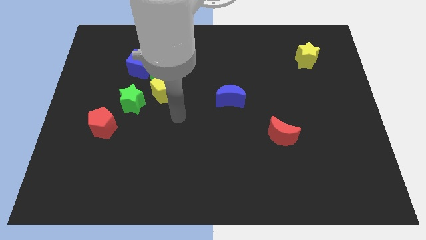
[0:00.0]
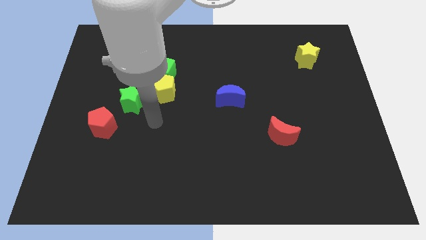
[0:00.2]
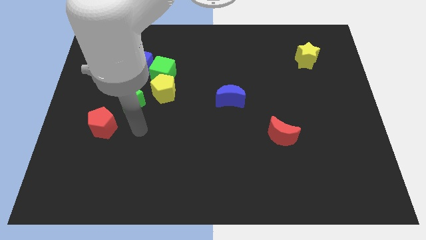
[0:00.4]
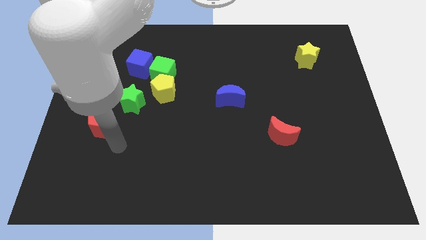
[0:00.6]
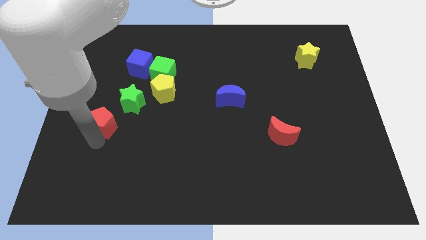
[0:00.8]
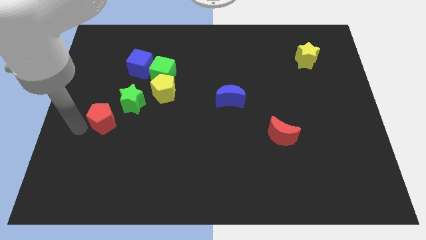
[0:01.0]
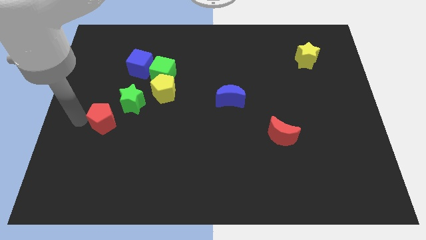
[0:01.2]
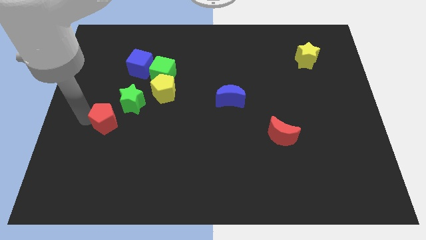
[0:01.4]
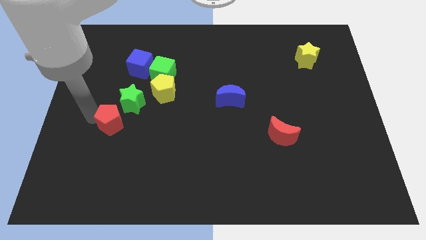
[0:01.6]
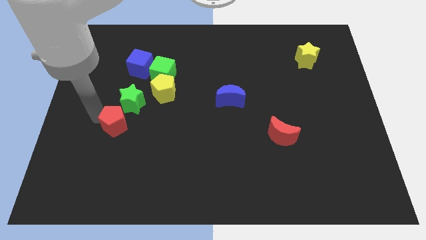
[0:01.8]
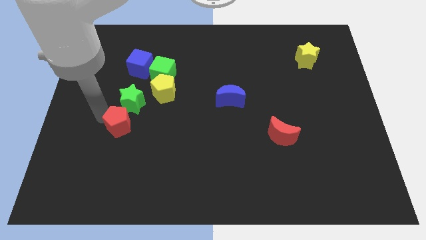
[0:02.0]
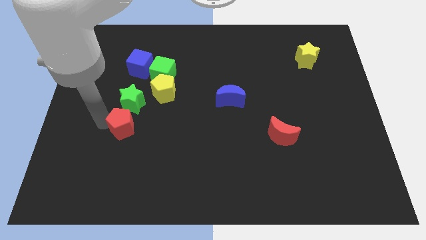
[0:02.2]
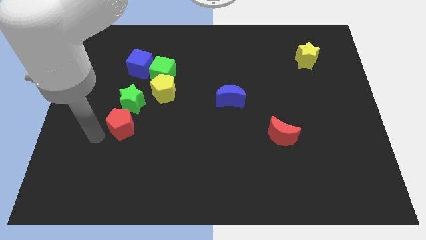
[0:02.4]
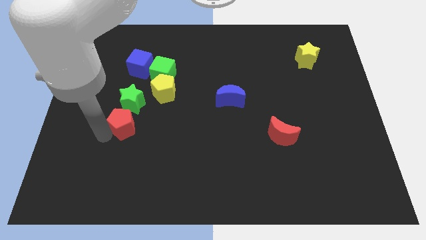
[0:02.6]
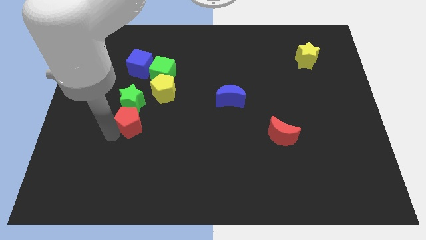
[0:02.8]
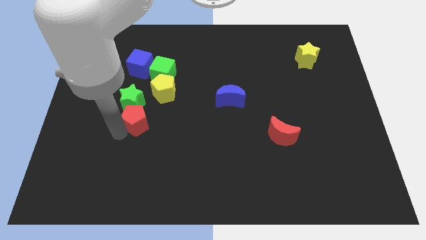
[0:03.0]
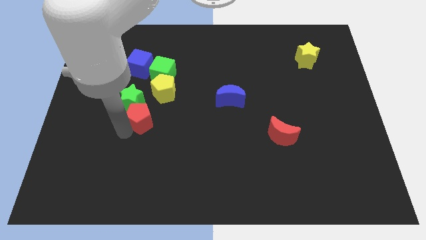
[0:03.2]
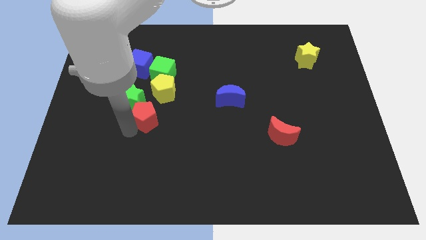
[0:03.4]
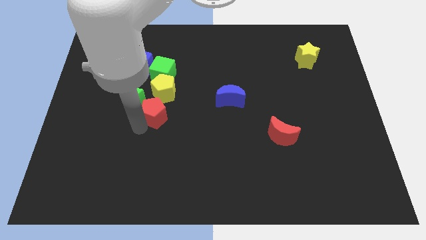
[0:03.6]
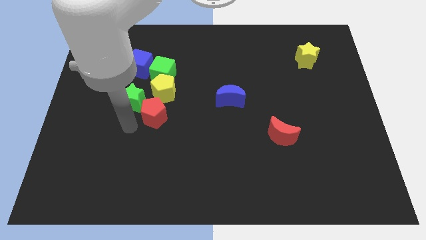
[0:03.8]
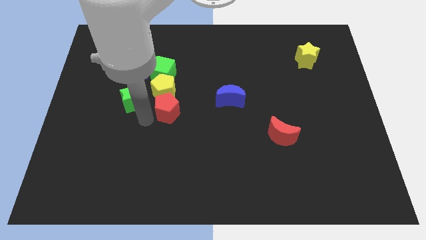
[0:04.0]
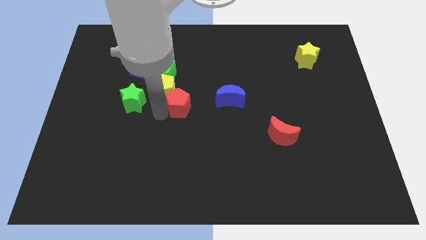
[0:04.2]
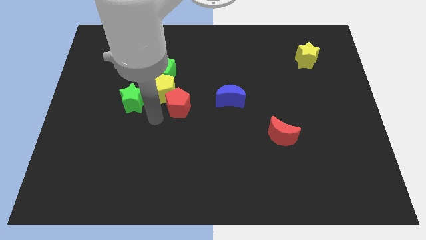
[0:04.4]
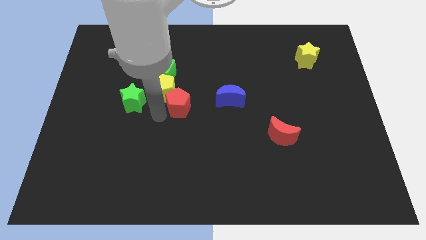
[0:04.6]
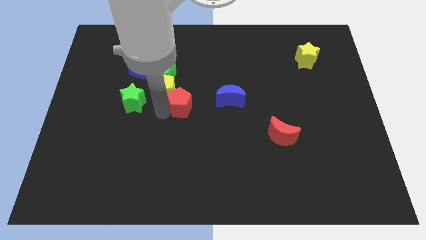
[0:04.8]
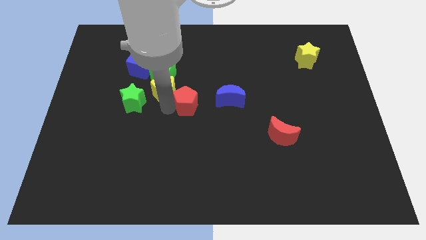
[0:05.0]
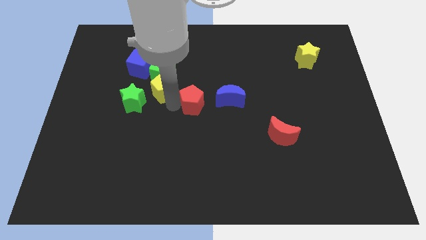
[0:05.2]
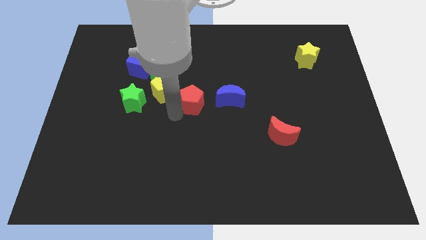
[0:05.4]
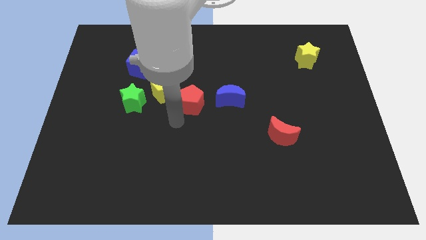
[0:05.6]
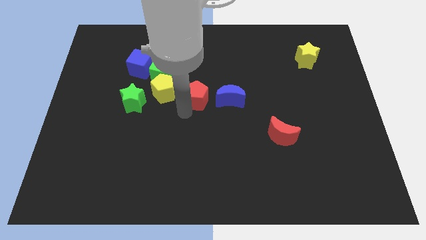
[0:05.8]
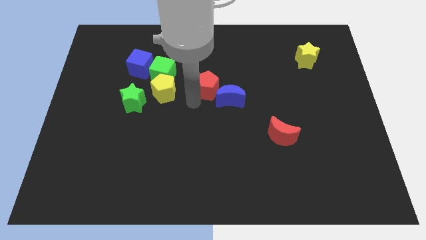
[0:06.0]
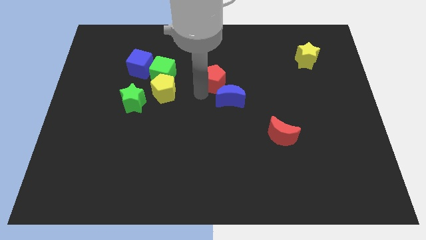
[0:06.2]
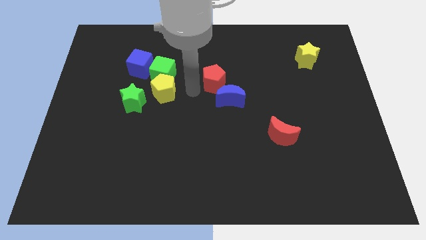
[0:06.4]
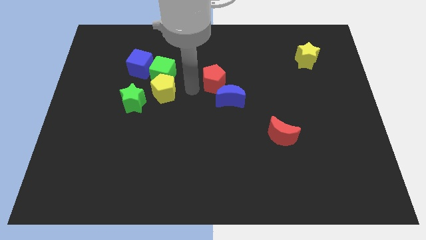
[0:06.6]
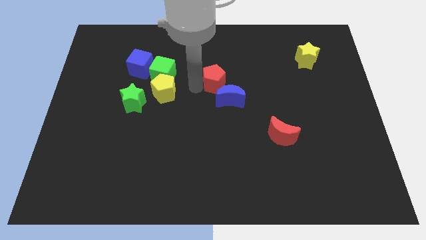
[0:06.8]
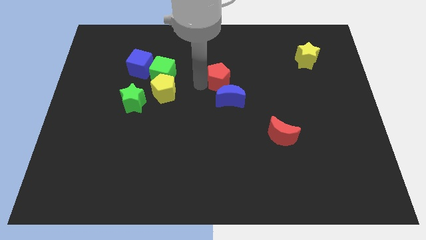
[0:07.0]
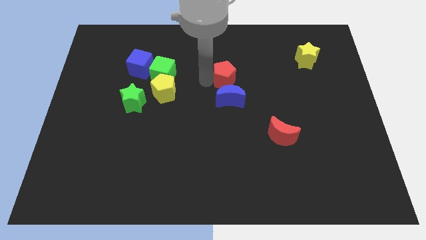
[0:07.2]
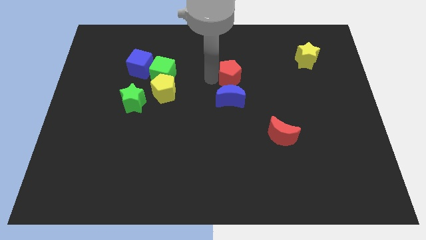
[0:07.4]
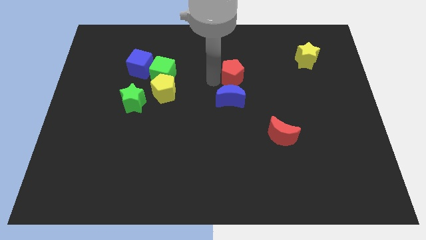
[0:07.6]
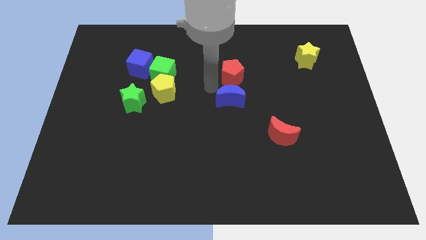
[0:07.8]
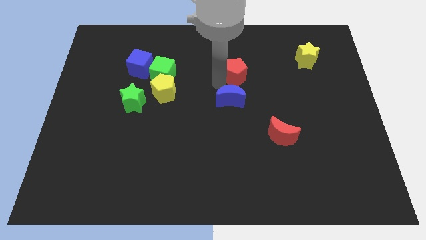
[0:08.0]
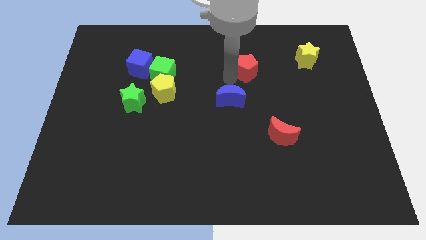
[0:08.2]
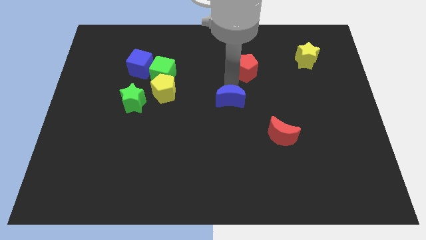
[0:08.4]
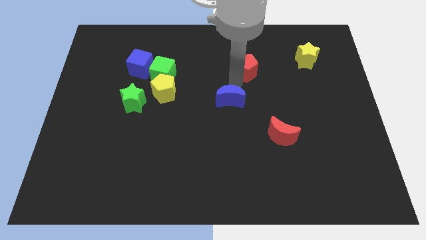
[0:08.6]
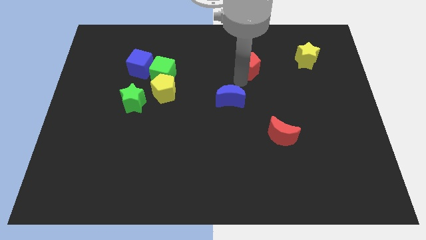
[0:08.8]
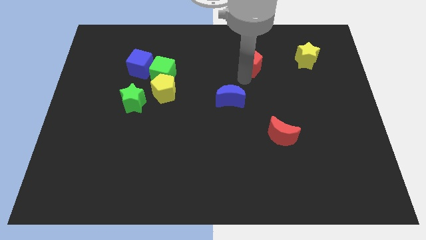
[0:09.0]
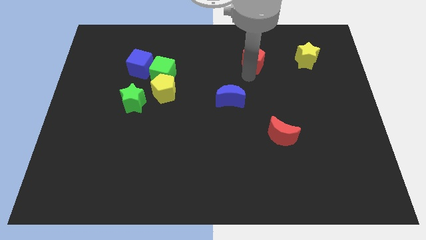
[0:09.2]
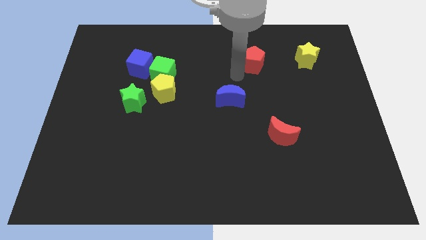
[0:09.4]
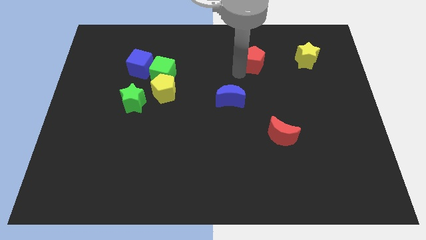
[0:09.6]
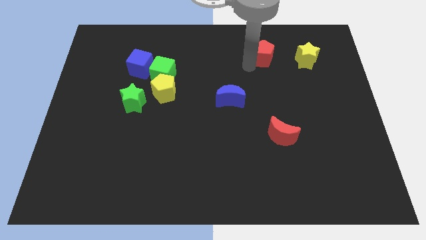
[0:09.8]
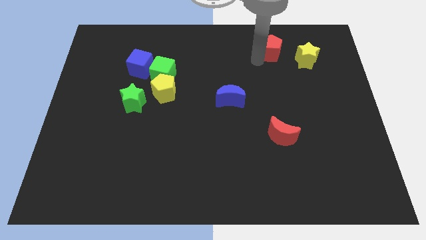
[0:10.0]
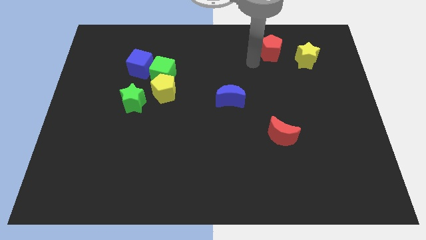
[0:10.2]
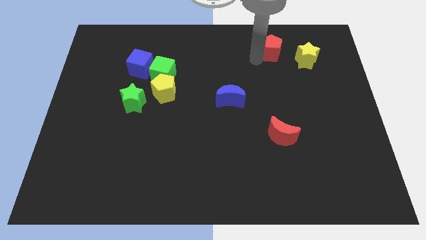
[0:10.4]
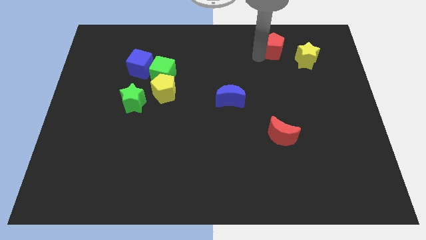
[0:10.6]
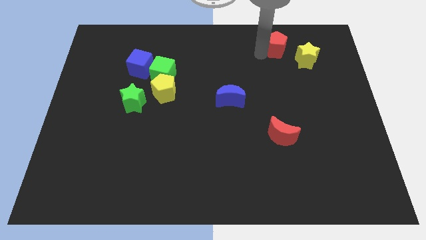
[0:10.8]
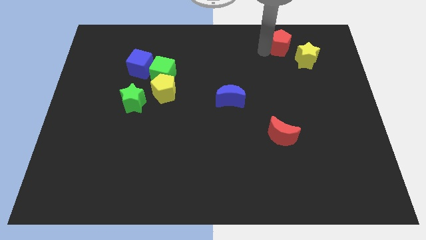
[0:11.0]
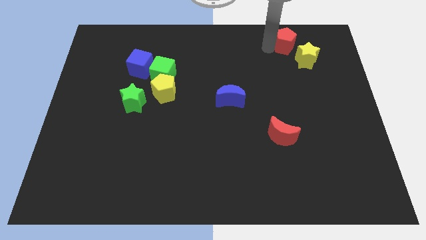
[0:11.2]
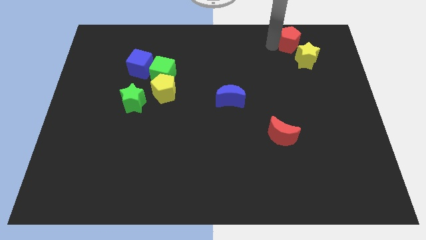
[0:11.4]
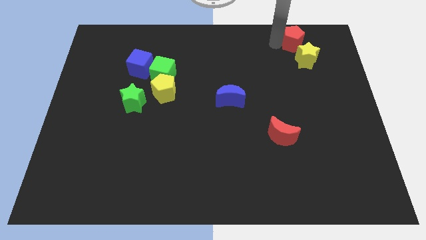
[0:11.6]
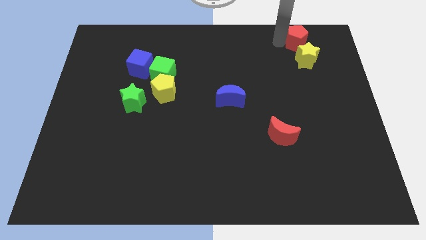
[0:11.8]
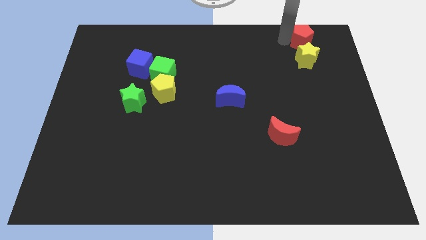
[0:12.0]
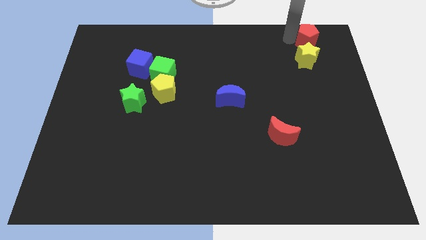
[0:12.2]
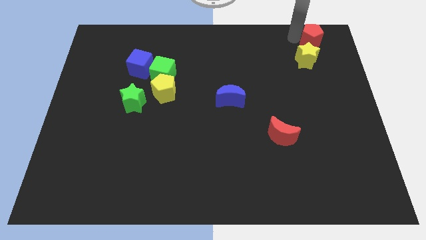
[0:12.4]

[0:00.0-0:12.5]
slide the red pentagon to the top right of the board

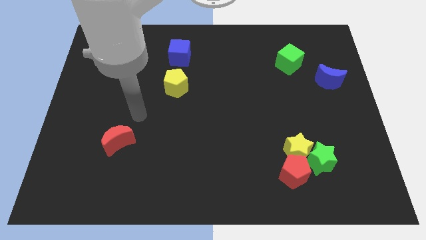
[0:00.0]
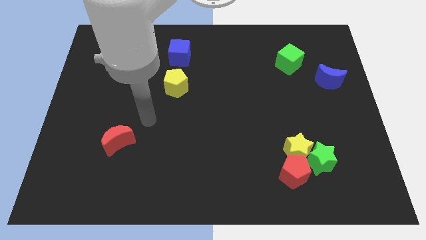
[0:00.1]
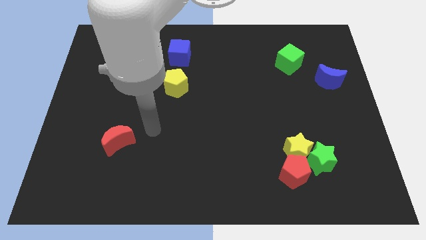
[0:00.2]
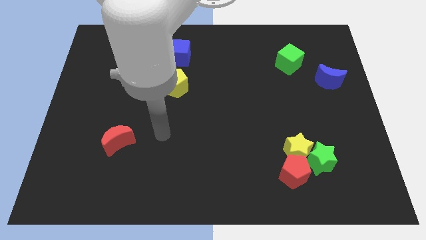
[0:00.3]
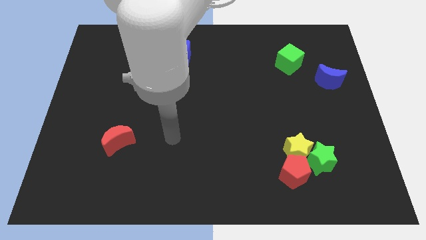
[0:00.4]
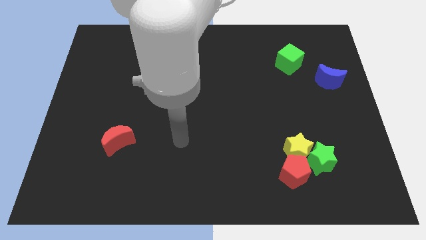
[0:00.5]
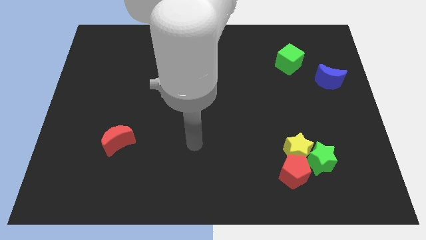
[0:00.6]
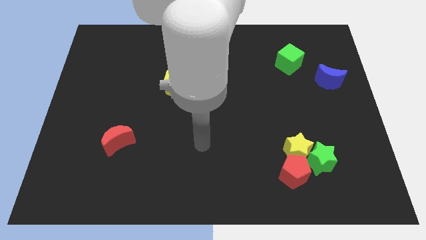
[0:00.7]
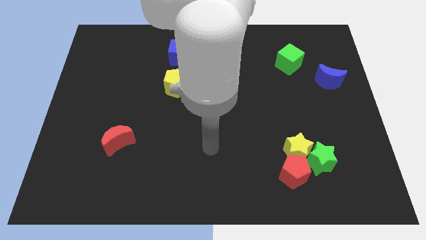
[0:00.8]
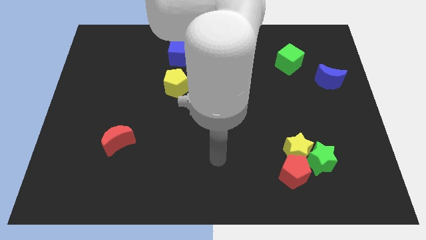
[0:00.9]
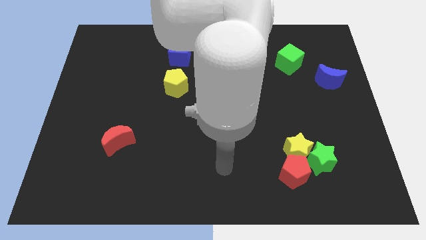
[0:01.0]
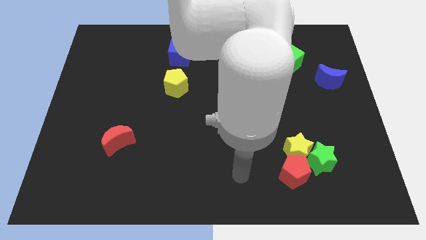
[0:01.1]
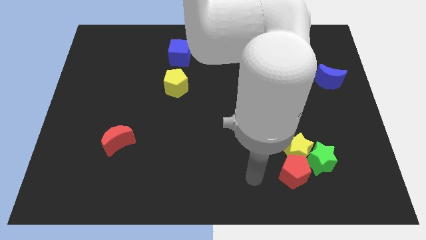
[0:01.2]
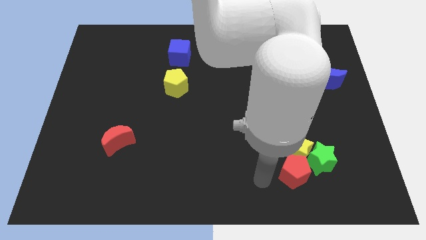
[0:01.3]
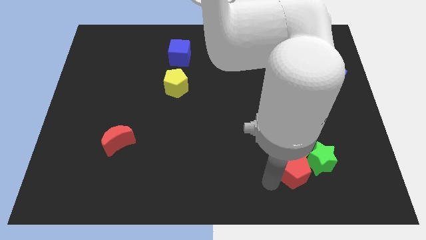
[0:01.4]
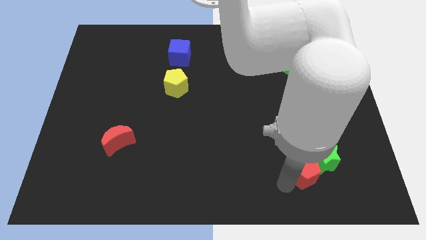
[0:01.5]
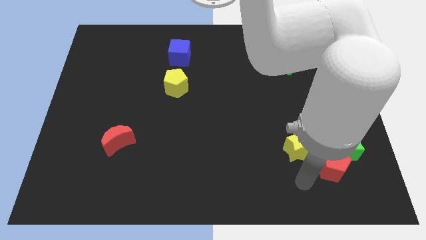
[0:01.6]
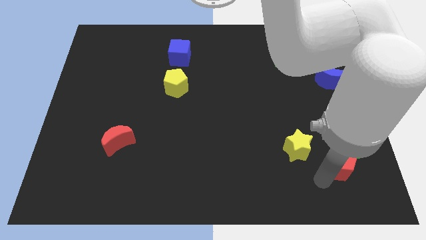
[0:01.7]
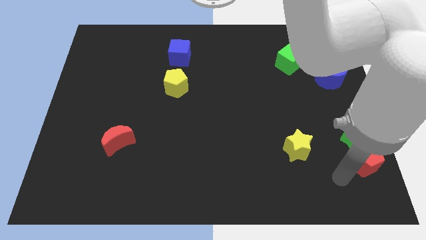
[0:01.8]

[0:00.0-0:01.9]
slide the green star to the right side of the board
